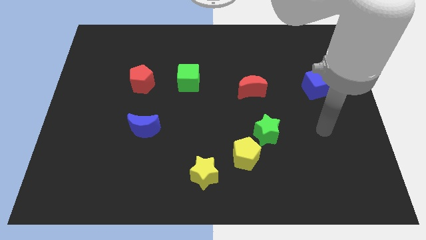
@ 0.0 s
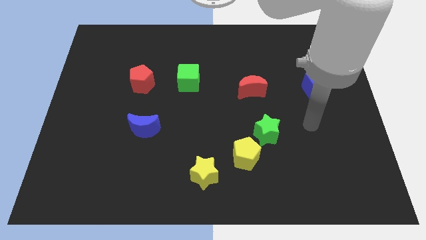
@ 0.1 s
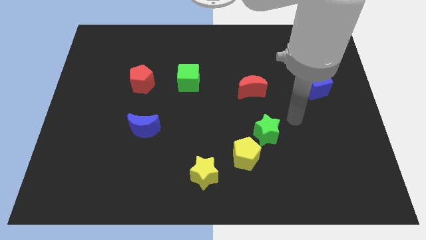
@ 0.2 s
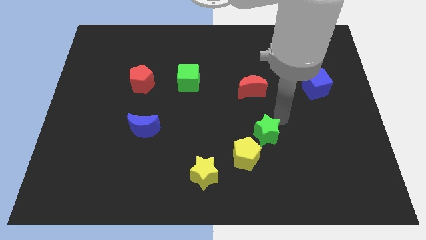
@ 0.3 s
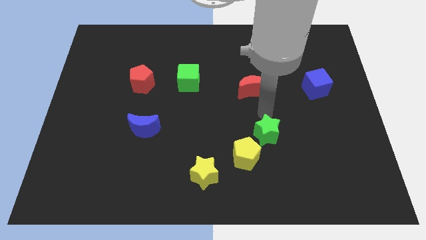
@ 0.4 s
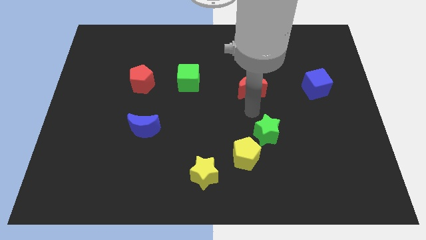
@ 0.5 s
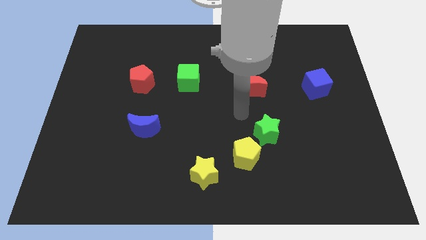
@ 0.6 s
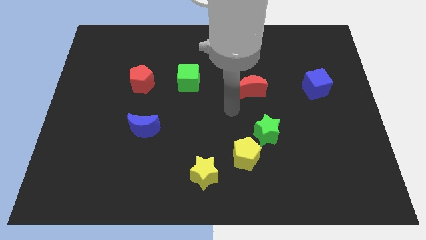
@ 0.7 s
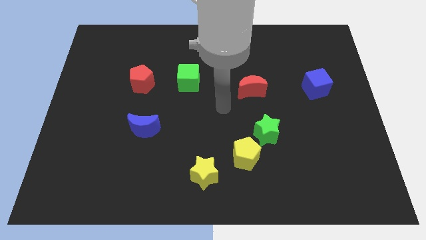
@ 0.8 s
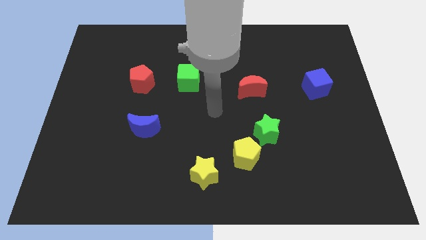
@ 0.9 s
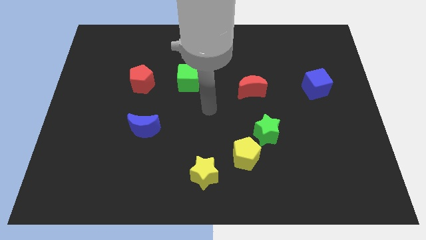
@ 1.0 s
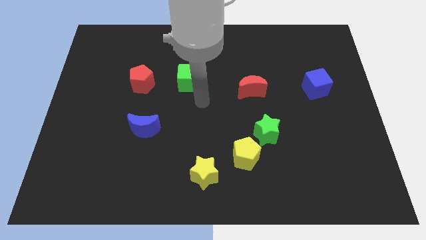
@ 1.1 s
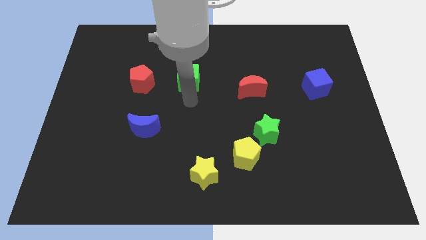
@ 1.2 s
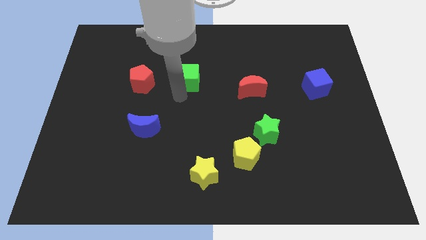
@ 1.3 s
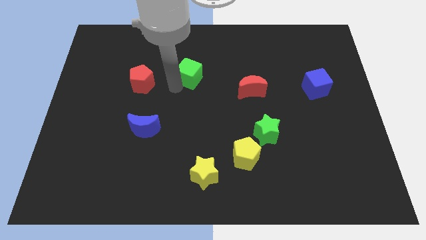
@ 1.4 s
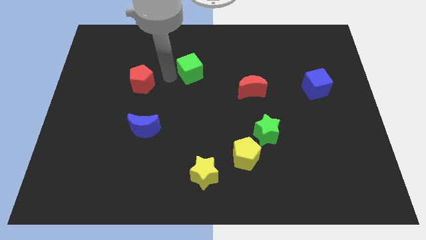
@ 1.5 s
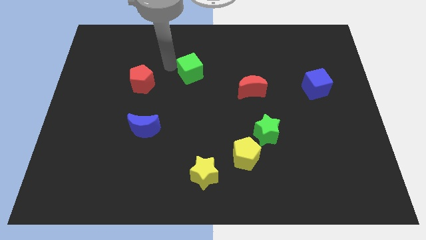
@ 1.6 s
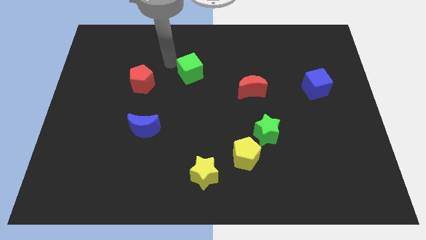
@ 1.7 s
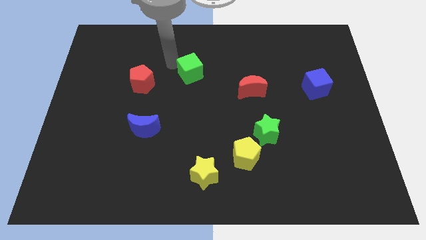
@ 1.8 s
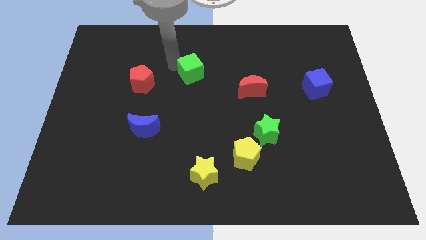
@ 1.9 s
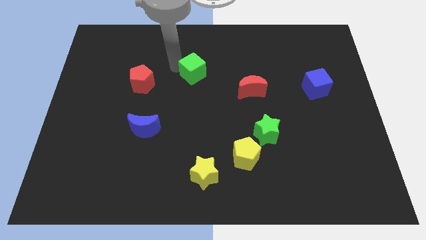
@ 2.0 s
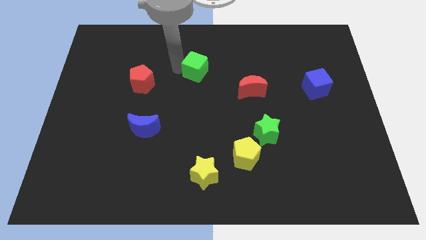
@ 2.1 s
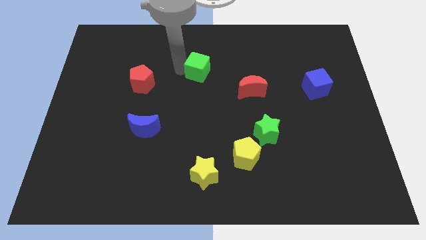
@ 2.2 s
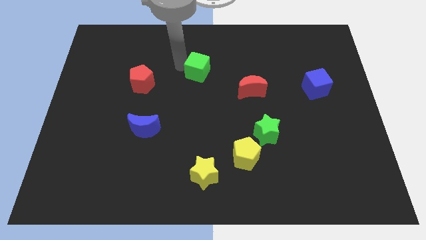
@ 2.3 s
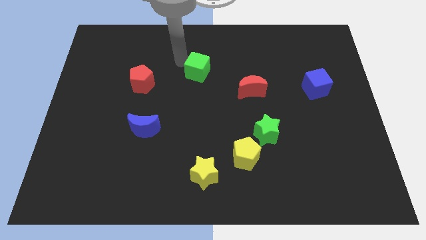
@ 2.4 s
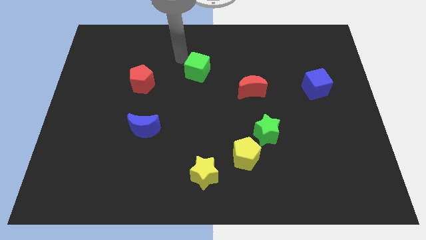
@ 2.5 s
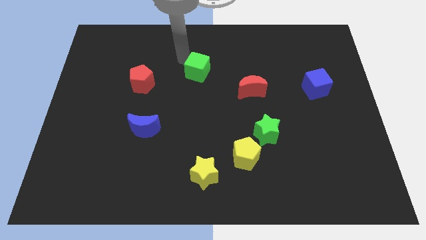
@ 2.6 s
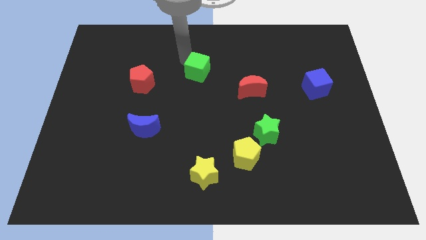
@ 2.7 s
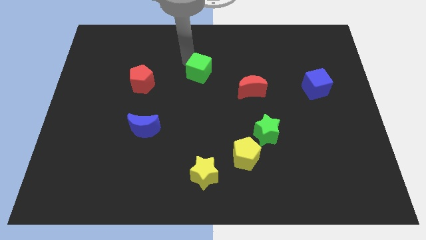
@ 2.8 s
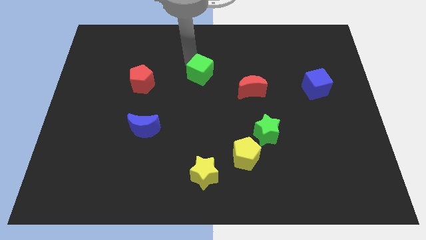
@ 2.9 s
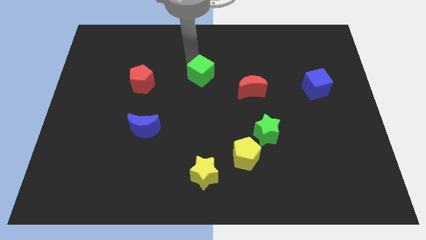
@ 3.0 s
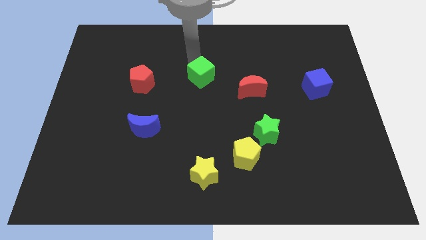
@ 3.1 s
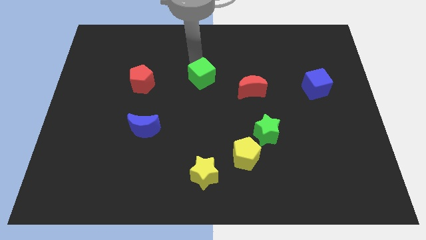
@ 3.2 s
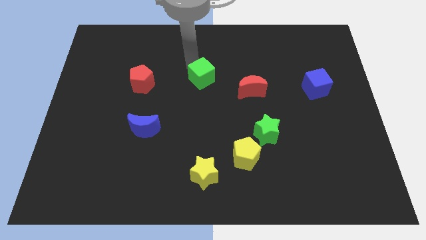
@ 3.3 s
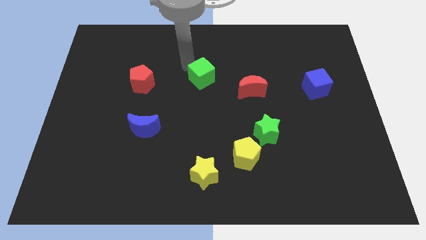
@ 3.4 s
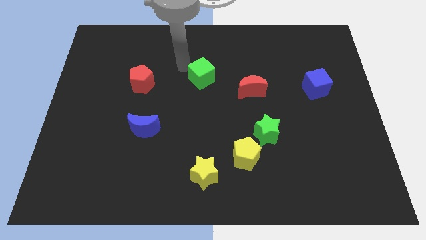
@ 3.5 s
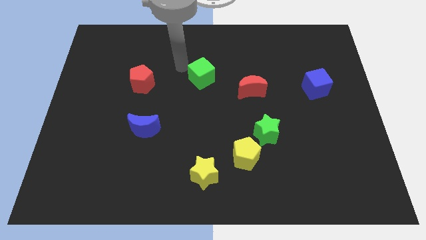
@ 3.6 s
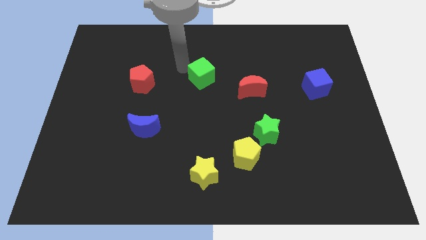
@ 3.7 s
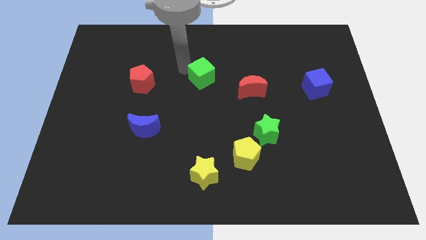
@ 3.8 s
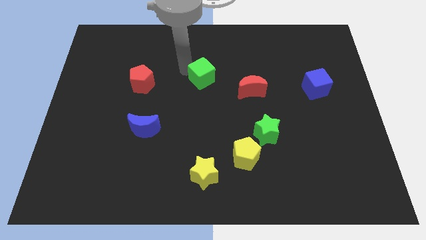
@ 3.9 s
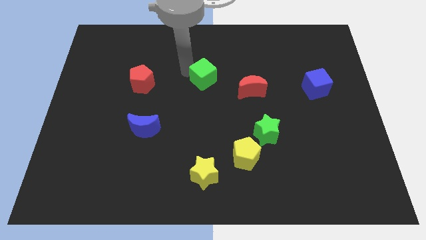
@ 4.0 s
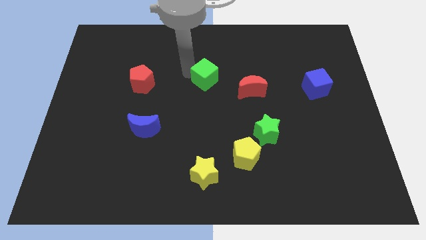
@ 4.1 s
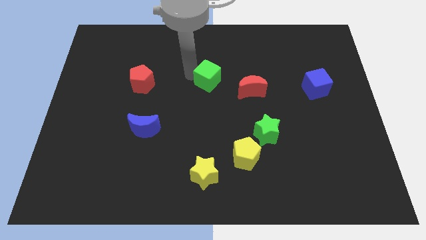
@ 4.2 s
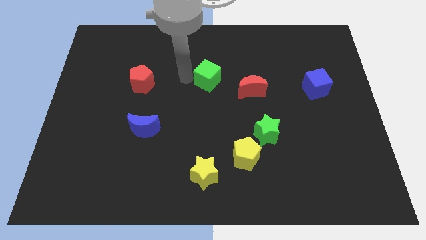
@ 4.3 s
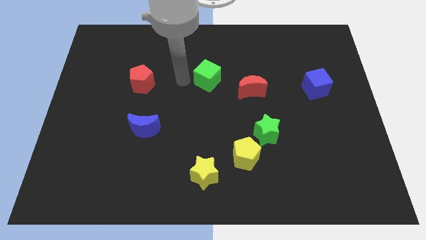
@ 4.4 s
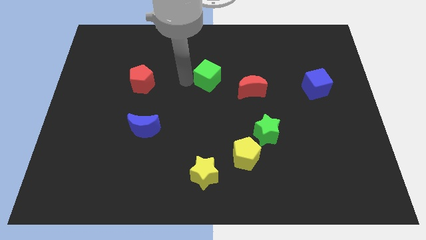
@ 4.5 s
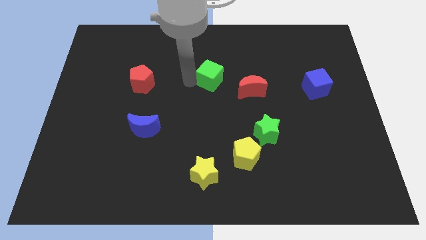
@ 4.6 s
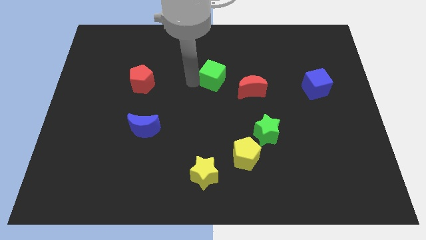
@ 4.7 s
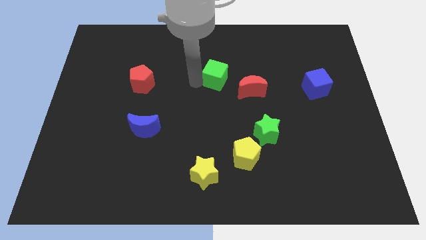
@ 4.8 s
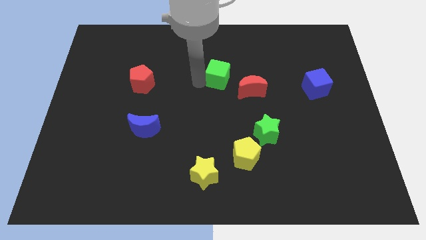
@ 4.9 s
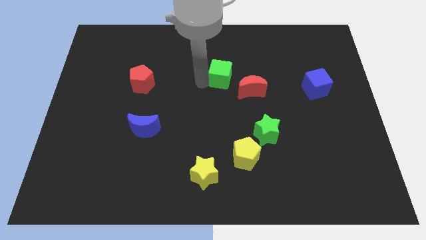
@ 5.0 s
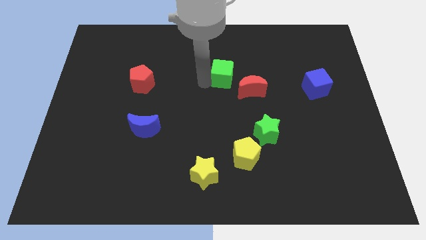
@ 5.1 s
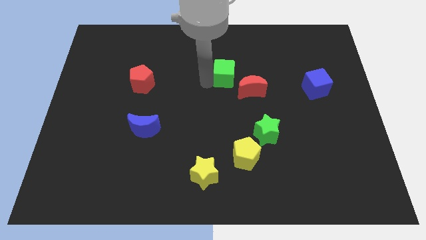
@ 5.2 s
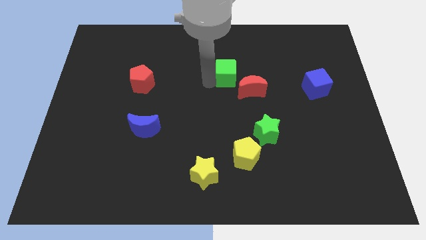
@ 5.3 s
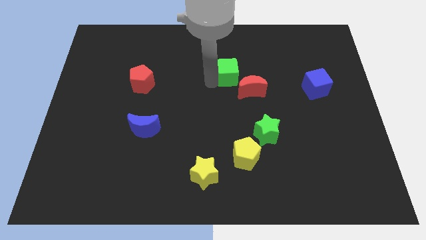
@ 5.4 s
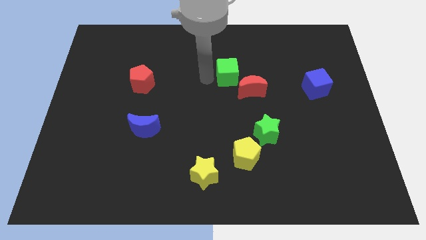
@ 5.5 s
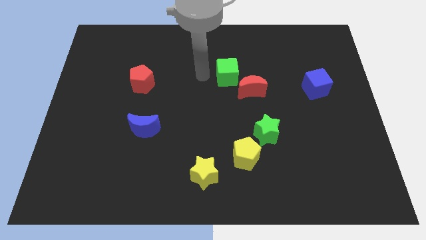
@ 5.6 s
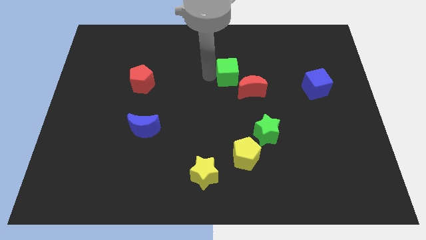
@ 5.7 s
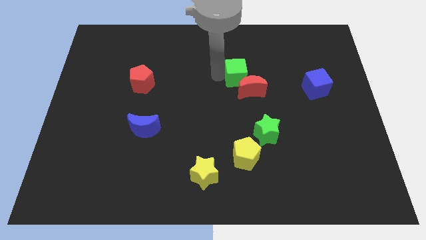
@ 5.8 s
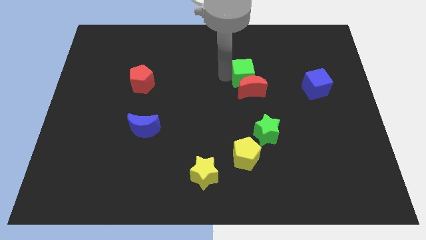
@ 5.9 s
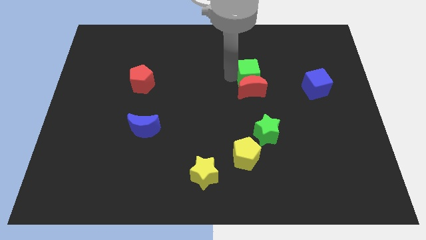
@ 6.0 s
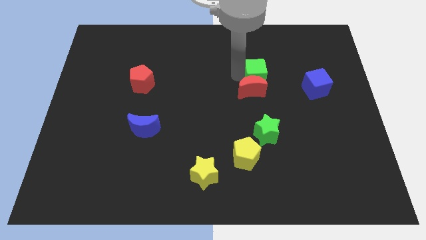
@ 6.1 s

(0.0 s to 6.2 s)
move the green cube to the left of the blue cube
